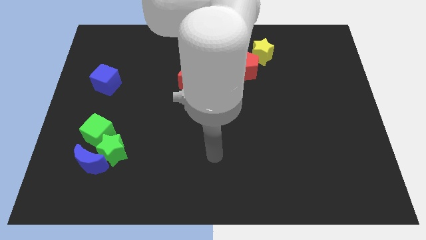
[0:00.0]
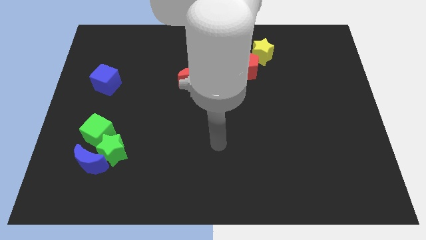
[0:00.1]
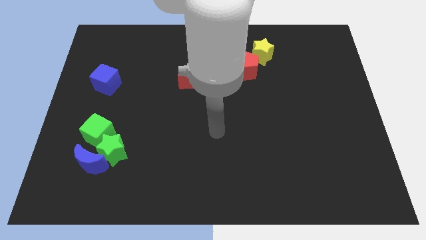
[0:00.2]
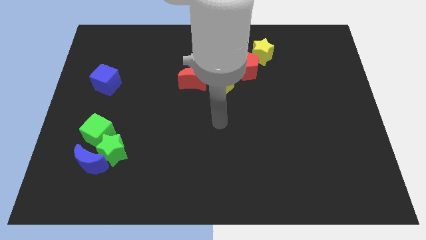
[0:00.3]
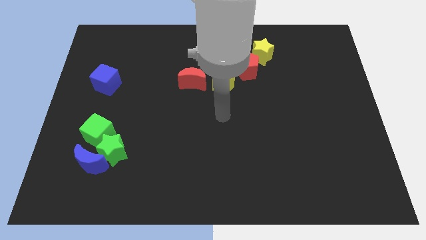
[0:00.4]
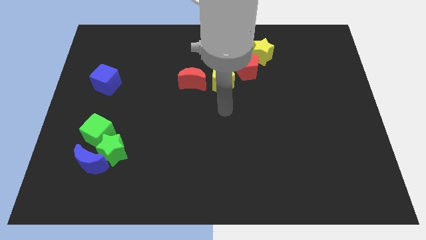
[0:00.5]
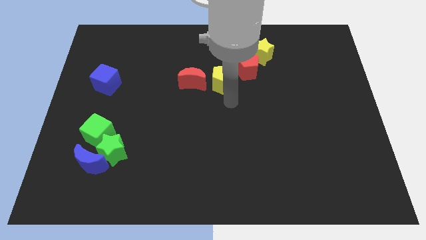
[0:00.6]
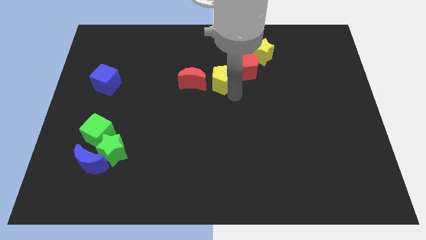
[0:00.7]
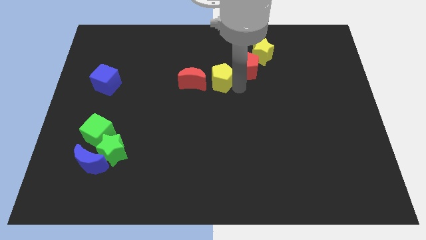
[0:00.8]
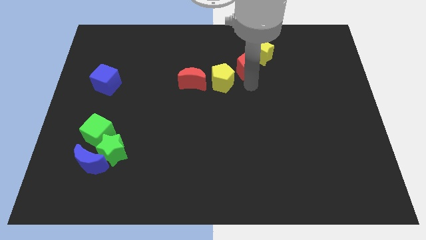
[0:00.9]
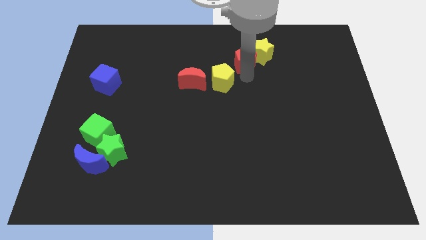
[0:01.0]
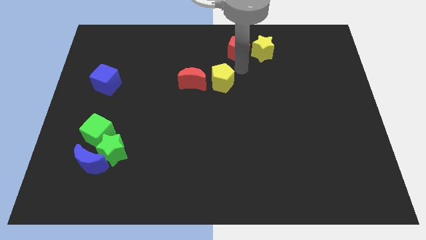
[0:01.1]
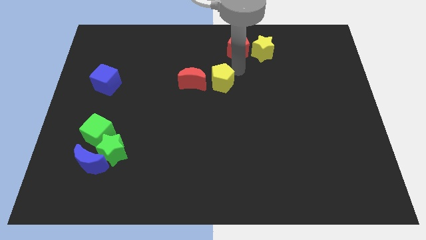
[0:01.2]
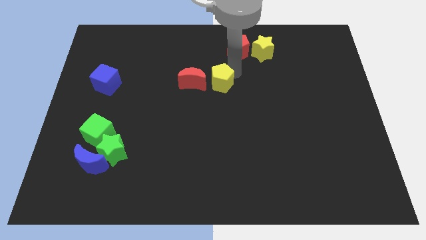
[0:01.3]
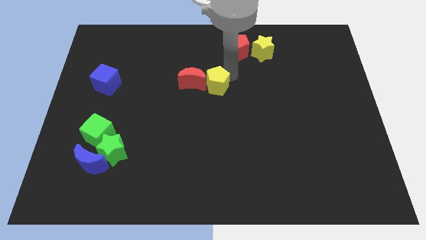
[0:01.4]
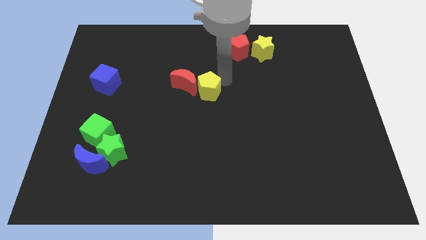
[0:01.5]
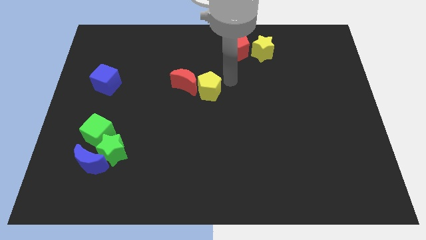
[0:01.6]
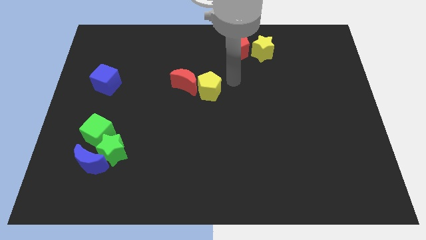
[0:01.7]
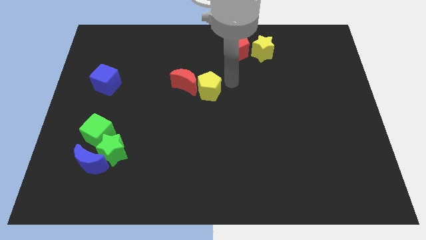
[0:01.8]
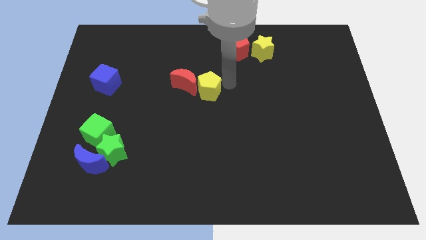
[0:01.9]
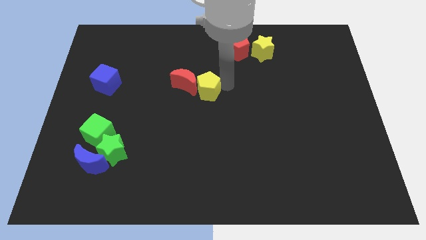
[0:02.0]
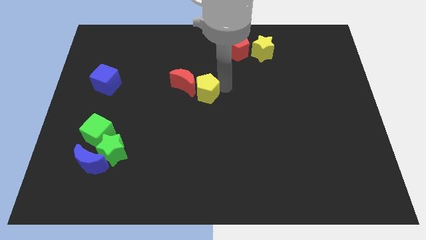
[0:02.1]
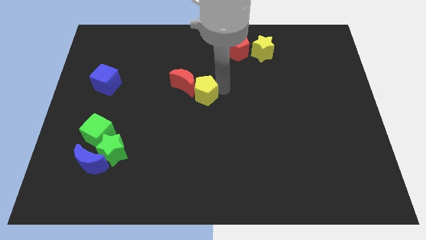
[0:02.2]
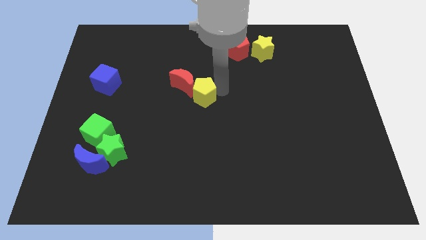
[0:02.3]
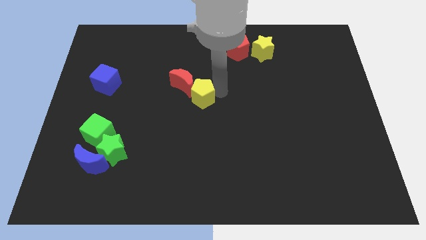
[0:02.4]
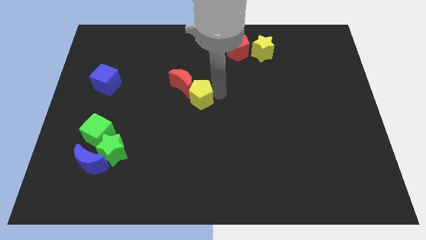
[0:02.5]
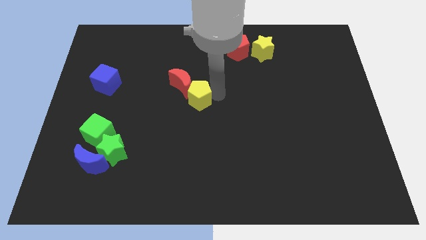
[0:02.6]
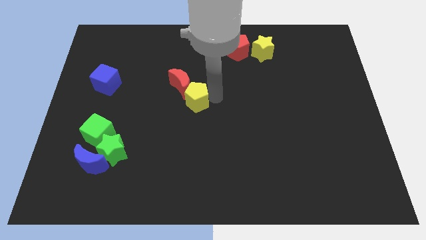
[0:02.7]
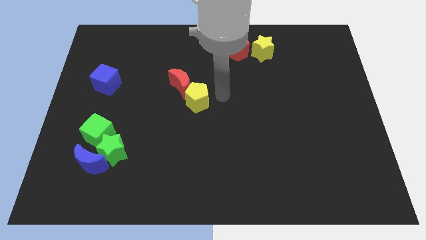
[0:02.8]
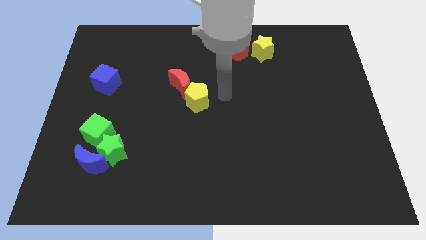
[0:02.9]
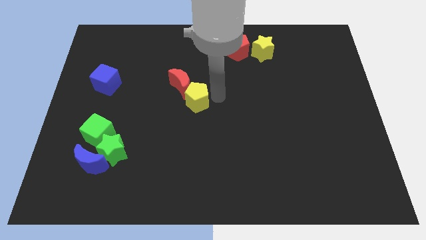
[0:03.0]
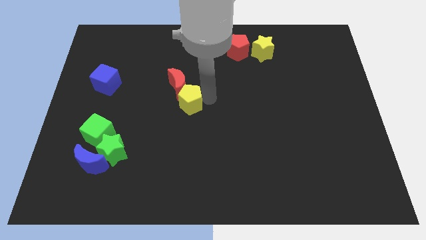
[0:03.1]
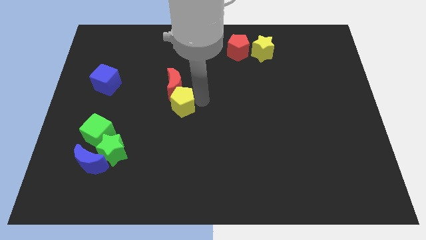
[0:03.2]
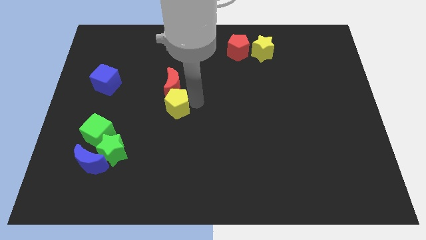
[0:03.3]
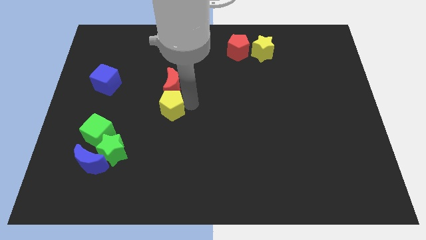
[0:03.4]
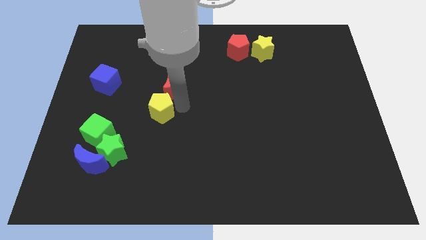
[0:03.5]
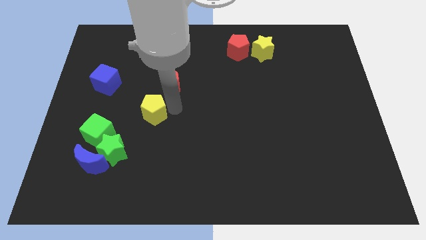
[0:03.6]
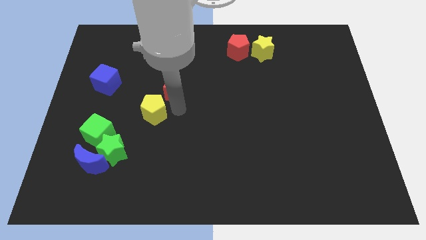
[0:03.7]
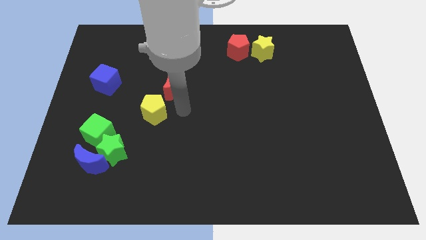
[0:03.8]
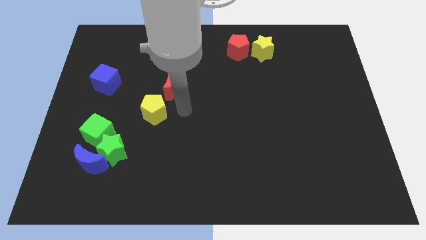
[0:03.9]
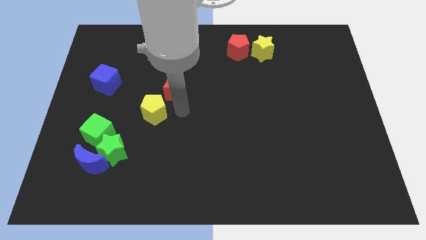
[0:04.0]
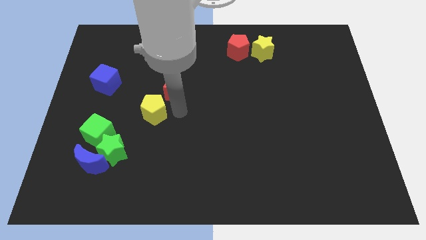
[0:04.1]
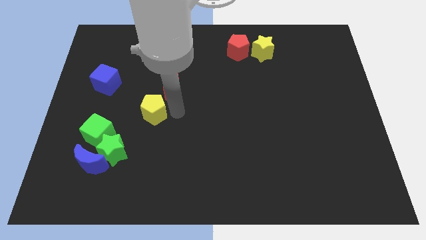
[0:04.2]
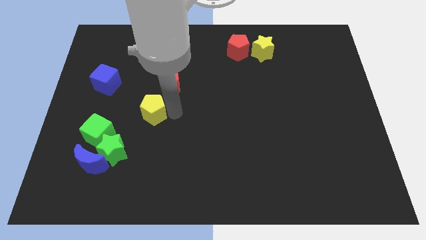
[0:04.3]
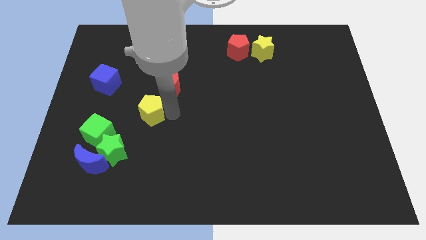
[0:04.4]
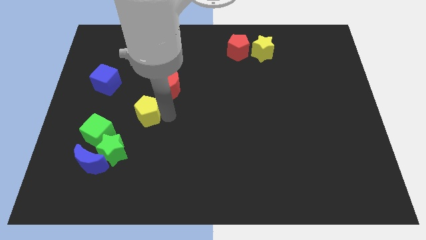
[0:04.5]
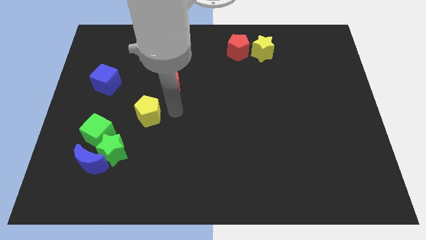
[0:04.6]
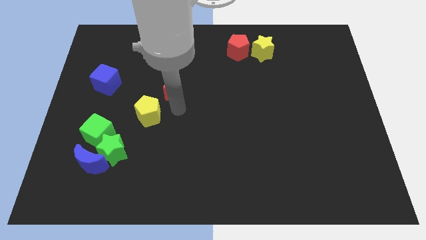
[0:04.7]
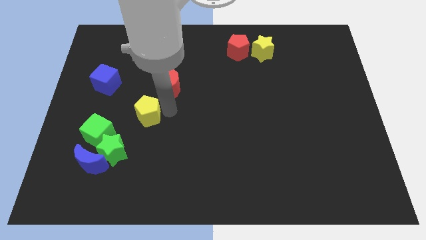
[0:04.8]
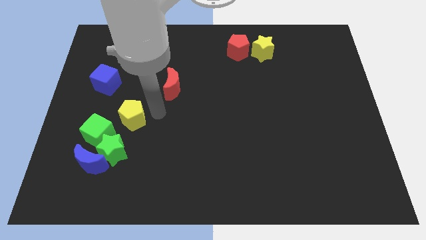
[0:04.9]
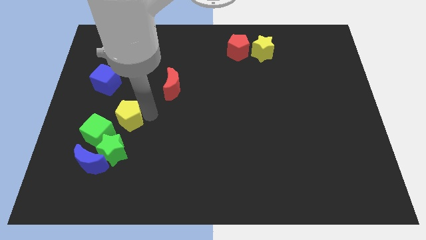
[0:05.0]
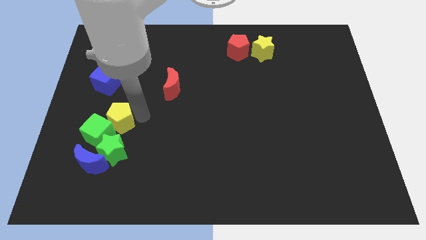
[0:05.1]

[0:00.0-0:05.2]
put the yellow pentagon to the top of the blue moon

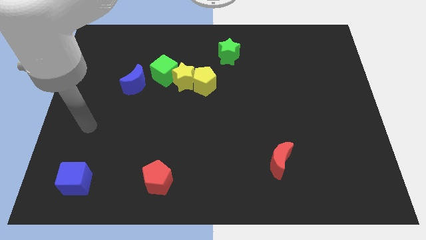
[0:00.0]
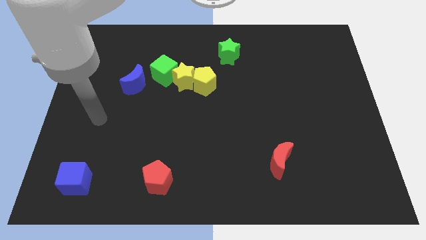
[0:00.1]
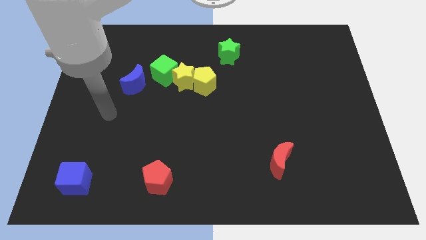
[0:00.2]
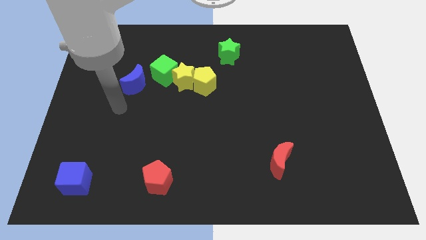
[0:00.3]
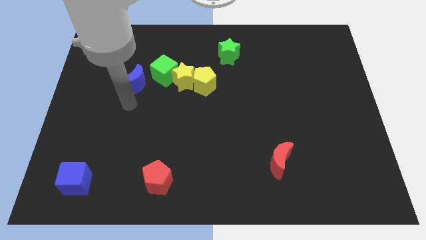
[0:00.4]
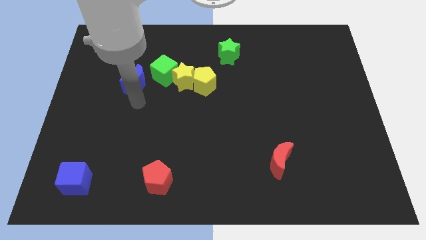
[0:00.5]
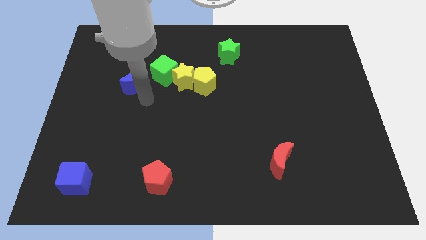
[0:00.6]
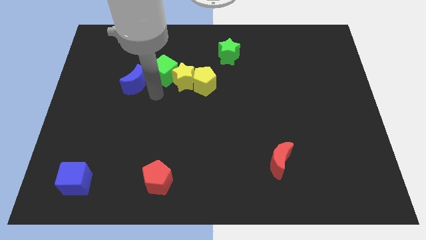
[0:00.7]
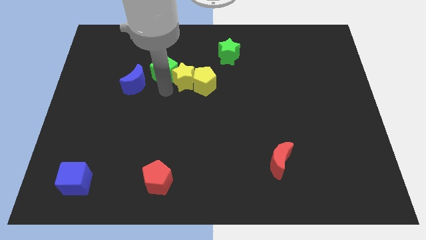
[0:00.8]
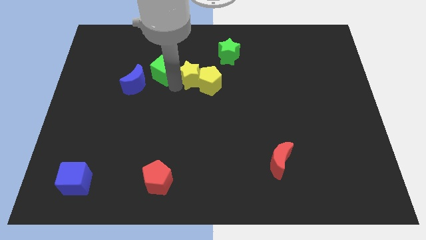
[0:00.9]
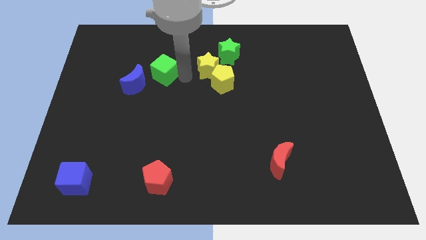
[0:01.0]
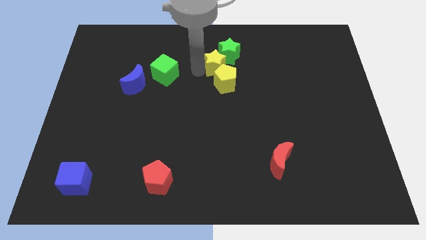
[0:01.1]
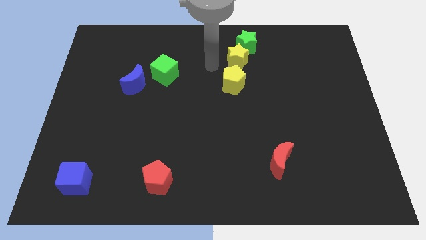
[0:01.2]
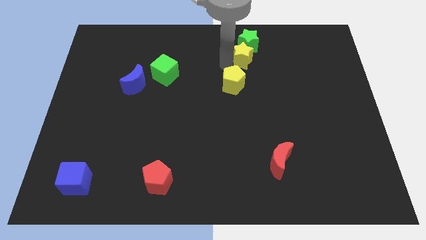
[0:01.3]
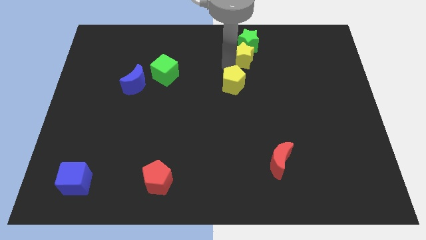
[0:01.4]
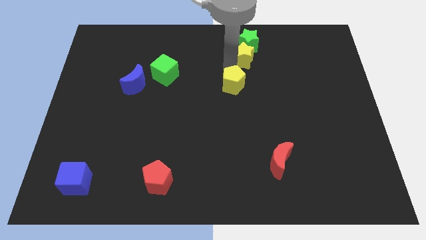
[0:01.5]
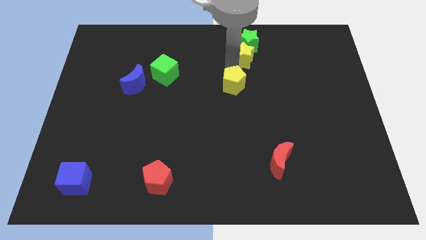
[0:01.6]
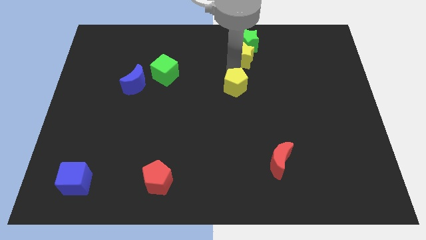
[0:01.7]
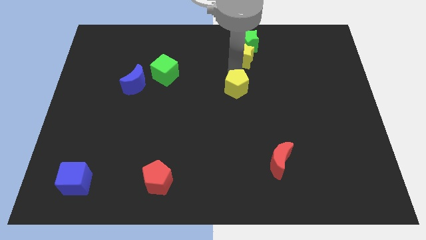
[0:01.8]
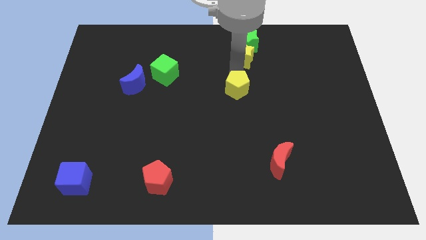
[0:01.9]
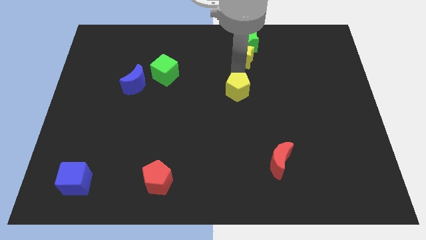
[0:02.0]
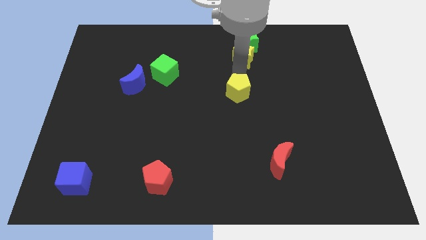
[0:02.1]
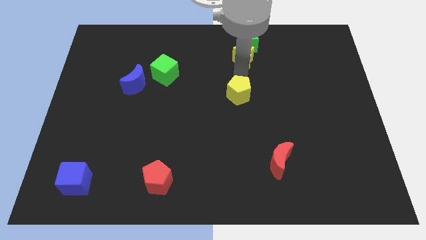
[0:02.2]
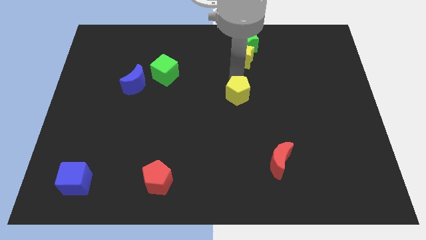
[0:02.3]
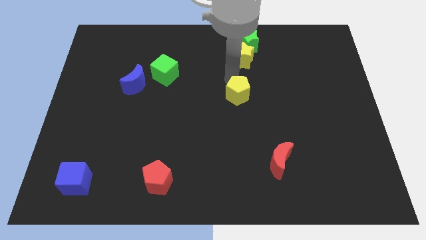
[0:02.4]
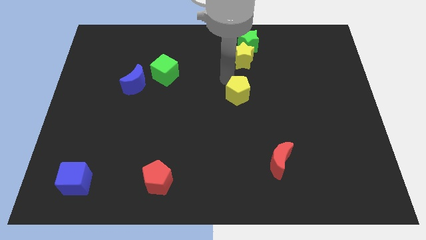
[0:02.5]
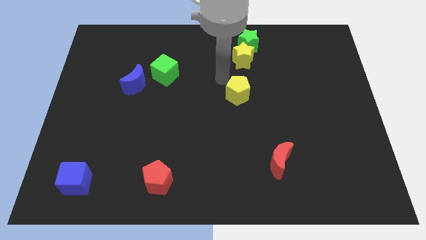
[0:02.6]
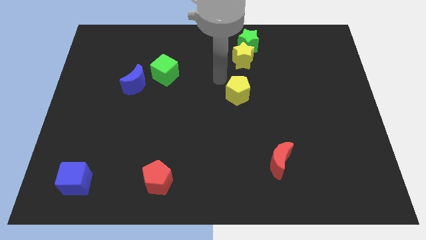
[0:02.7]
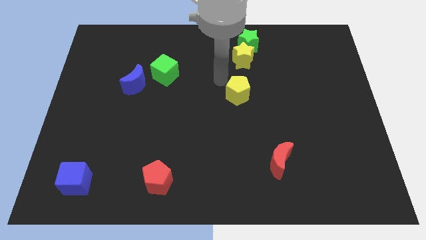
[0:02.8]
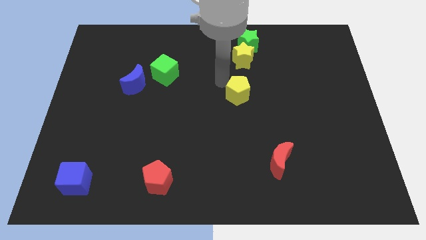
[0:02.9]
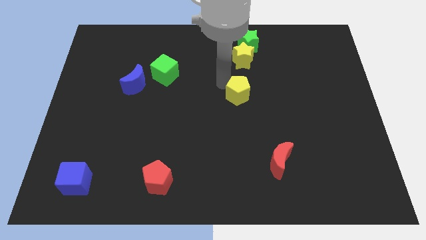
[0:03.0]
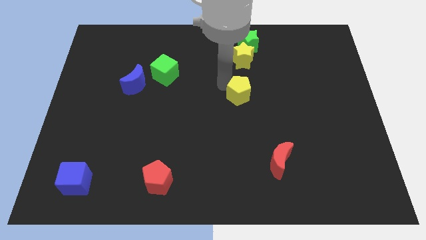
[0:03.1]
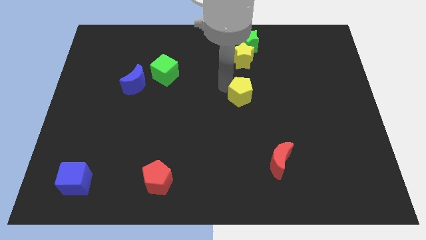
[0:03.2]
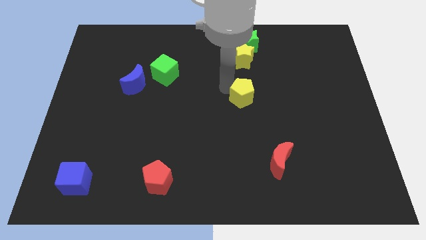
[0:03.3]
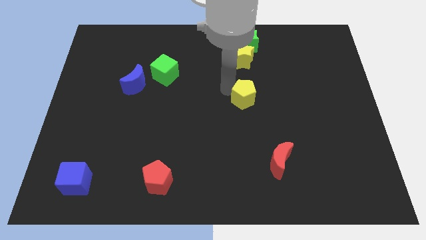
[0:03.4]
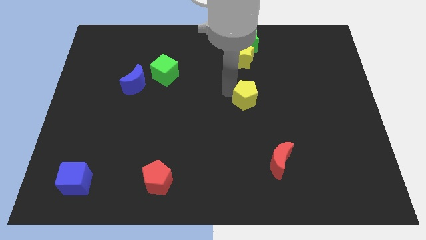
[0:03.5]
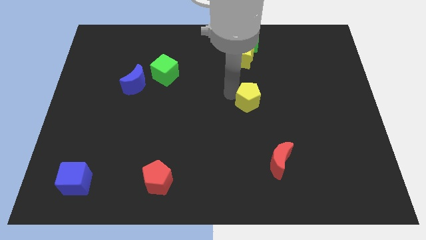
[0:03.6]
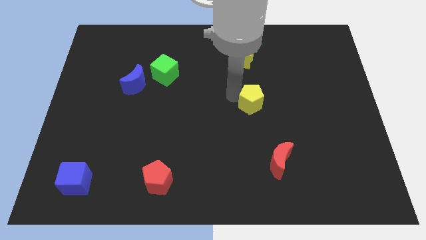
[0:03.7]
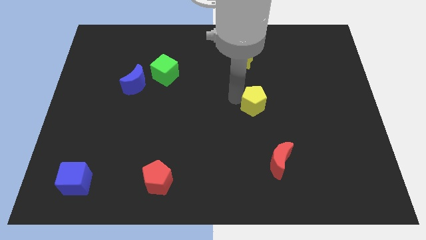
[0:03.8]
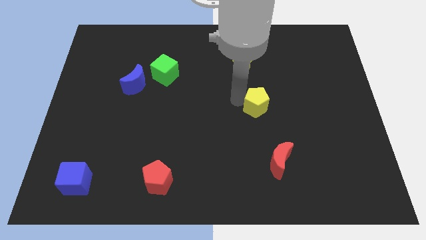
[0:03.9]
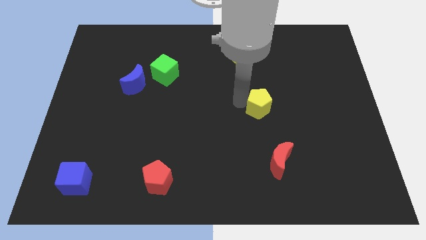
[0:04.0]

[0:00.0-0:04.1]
slide the yellow pentagon to the top side of the red moon
